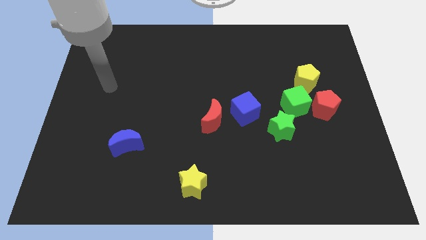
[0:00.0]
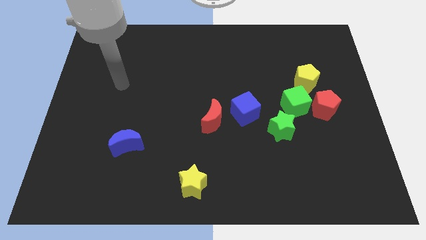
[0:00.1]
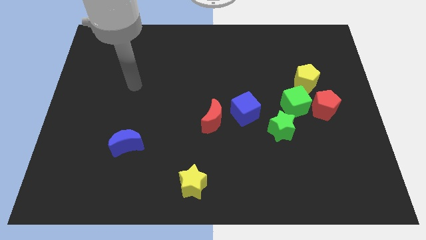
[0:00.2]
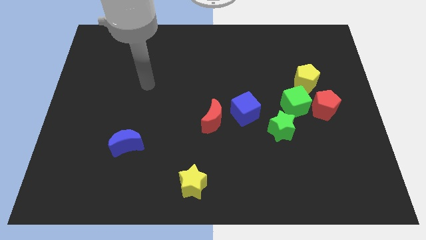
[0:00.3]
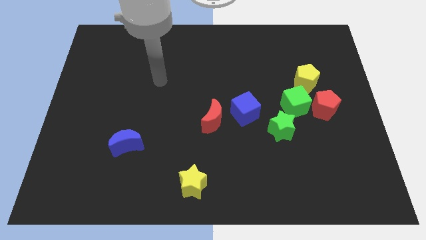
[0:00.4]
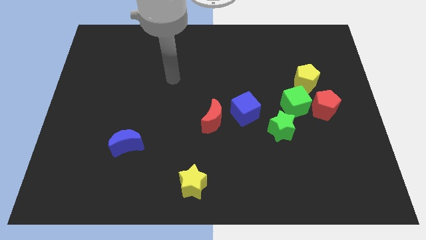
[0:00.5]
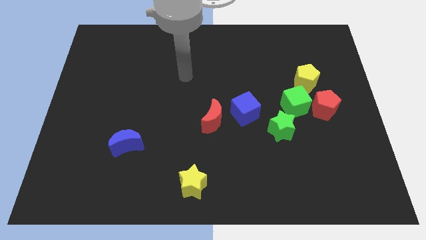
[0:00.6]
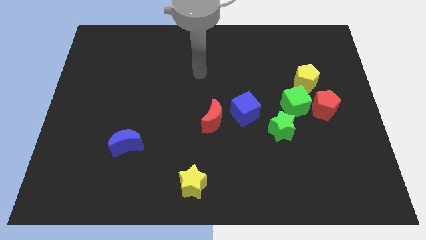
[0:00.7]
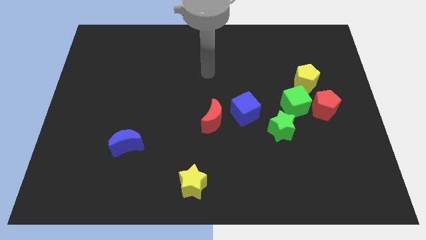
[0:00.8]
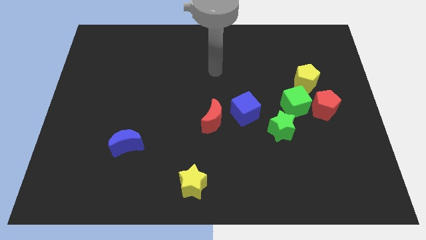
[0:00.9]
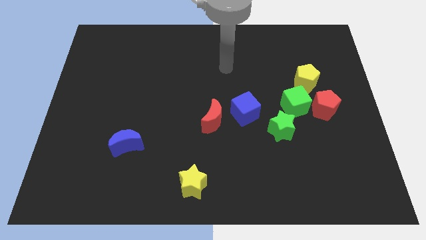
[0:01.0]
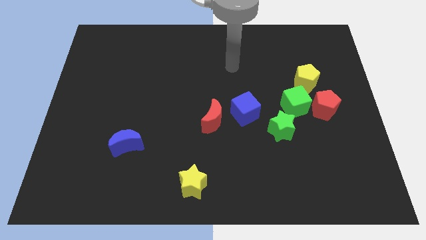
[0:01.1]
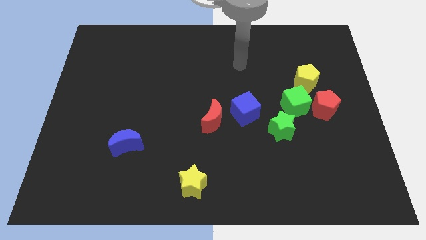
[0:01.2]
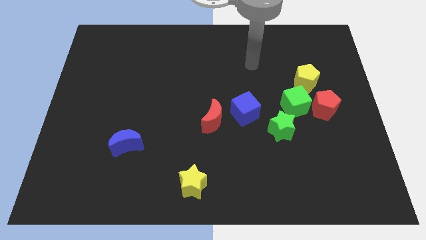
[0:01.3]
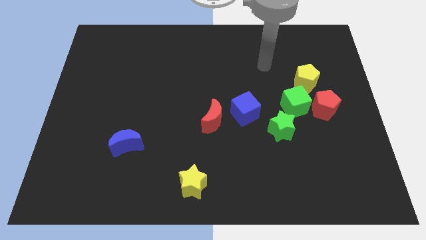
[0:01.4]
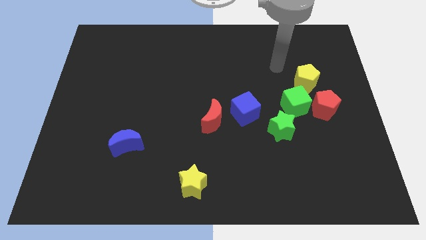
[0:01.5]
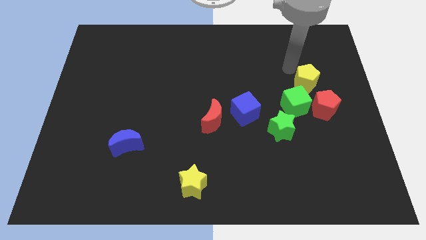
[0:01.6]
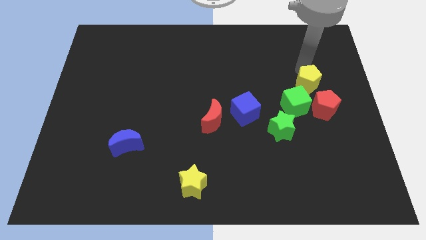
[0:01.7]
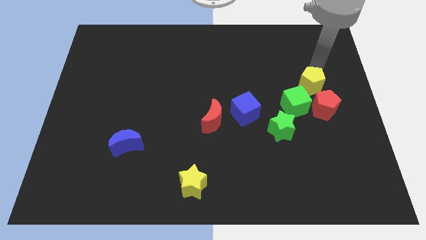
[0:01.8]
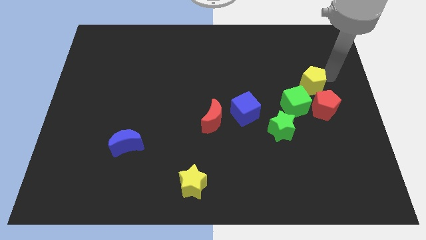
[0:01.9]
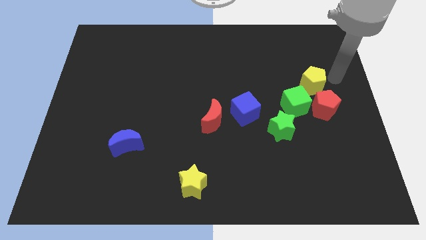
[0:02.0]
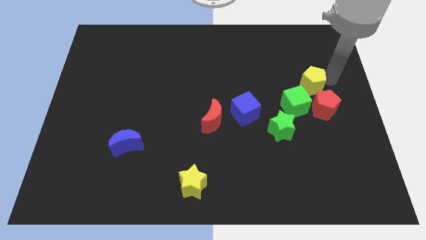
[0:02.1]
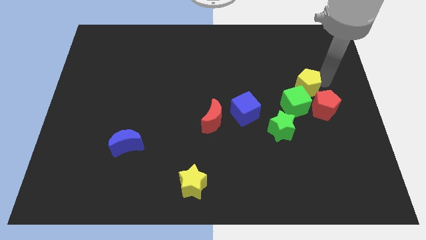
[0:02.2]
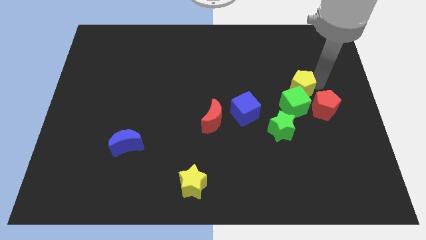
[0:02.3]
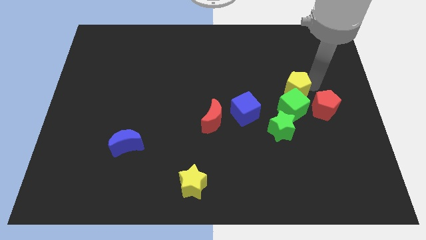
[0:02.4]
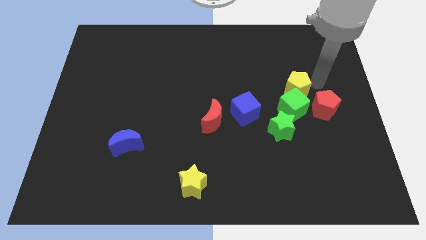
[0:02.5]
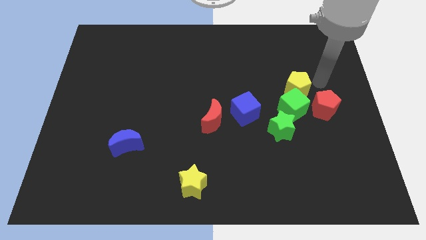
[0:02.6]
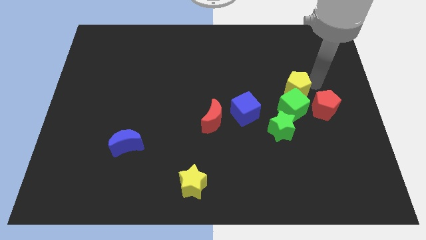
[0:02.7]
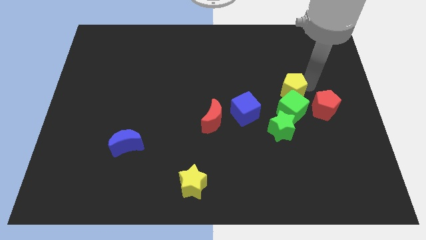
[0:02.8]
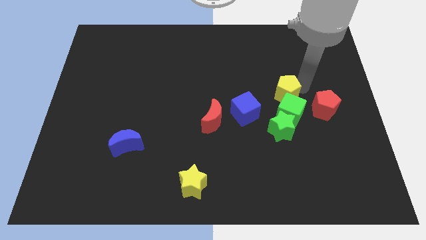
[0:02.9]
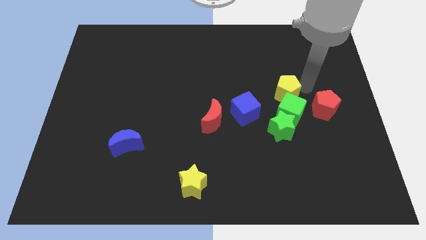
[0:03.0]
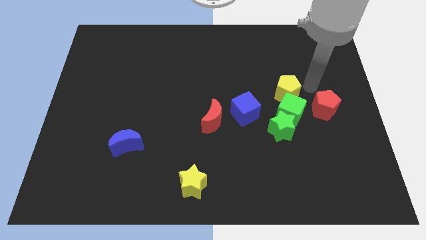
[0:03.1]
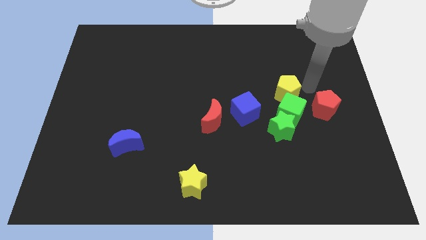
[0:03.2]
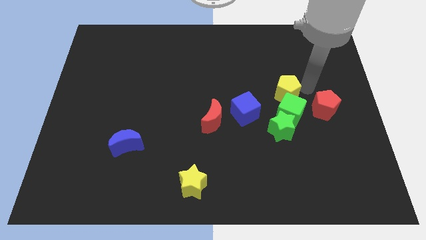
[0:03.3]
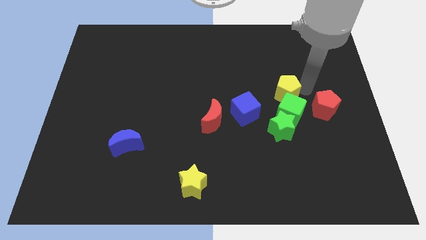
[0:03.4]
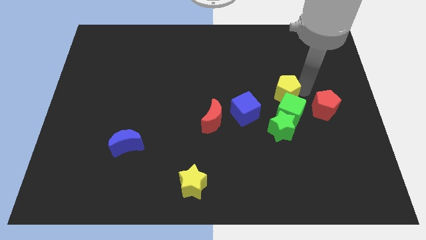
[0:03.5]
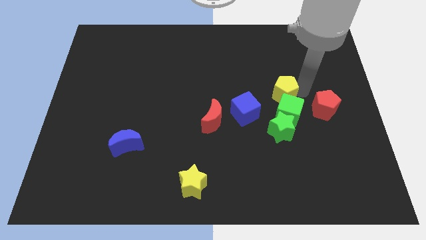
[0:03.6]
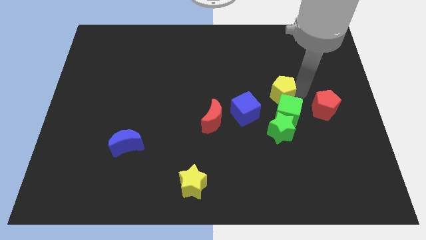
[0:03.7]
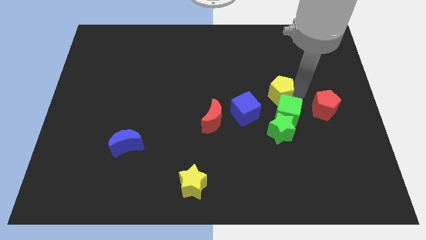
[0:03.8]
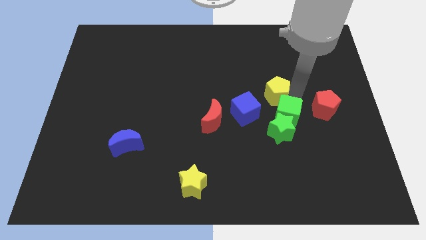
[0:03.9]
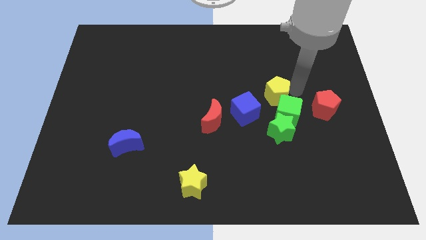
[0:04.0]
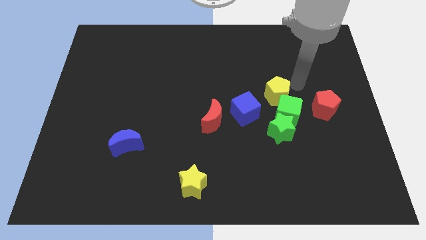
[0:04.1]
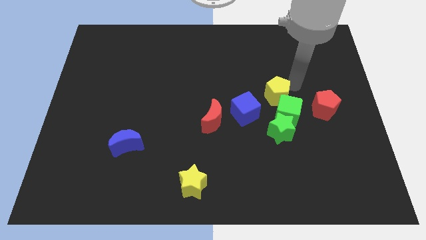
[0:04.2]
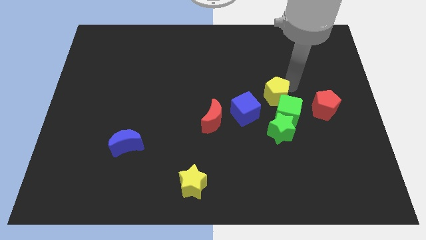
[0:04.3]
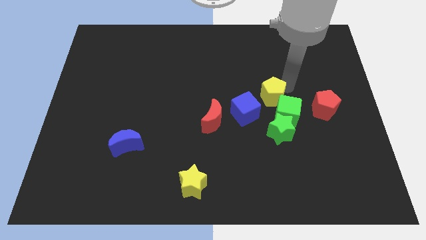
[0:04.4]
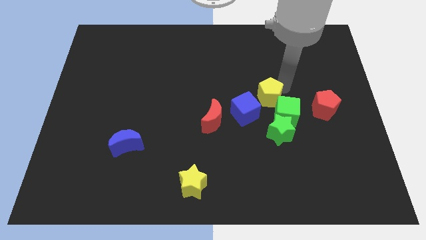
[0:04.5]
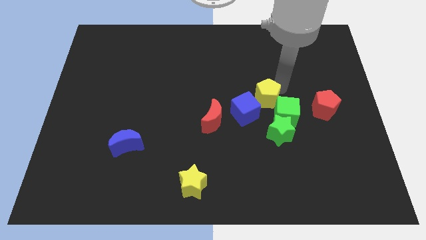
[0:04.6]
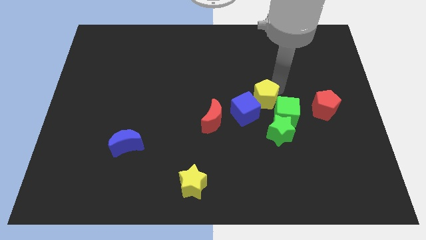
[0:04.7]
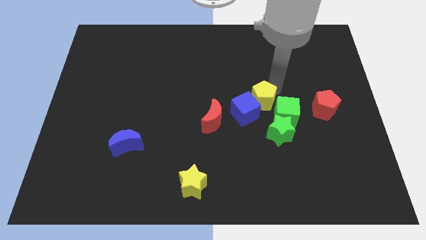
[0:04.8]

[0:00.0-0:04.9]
put the yellow pentagon towards the blue cube

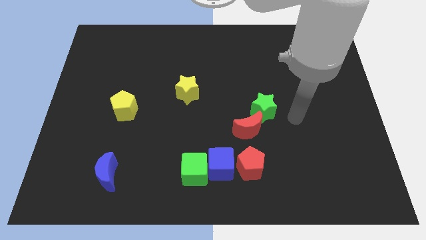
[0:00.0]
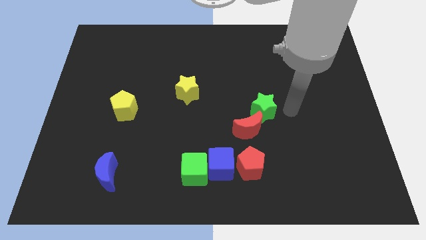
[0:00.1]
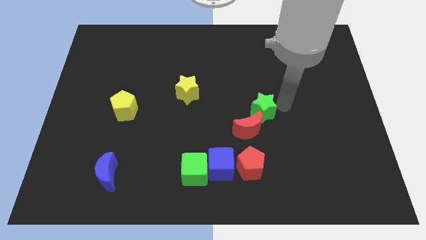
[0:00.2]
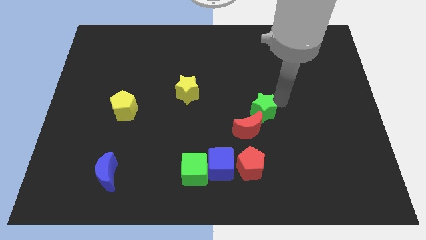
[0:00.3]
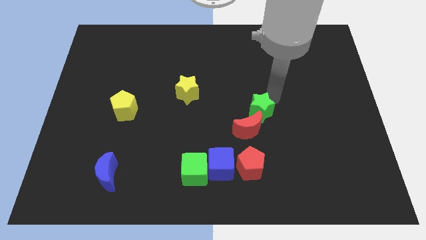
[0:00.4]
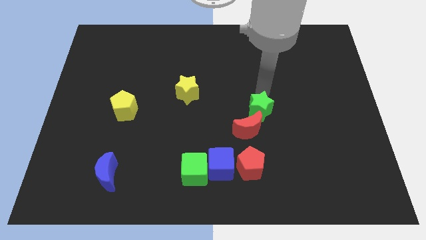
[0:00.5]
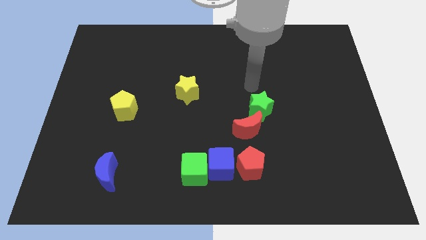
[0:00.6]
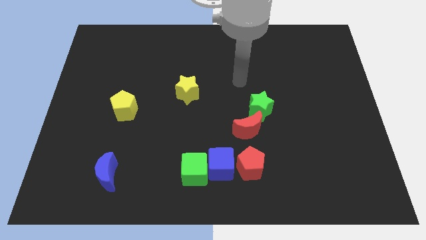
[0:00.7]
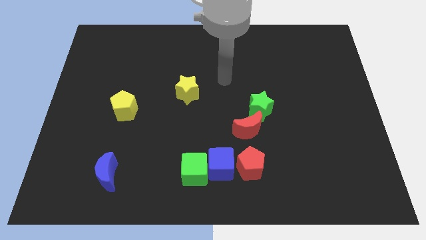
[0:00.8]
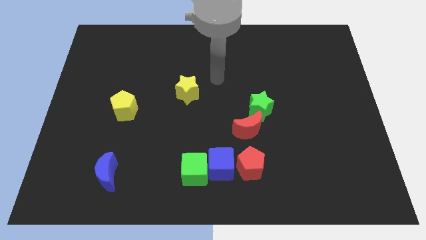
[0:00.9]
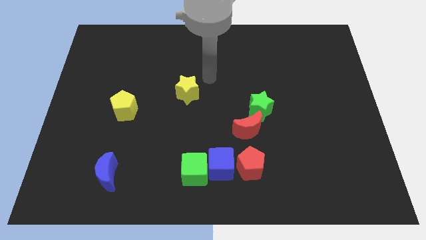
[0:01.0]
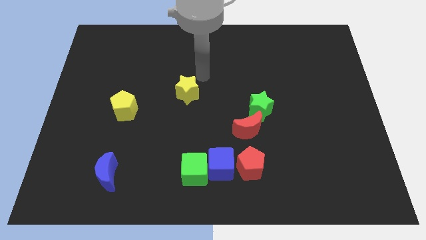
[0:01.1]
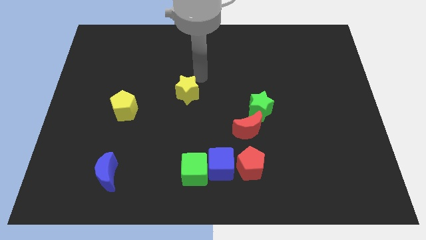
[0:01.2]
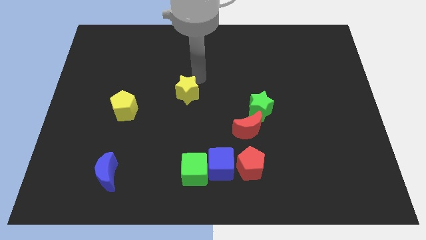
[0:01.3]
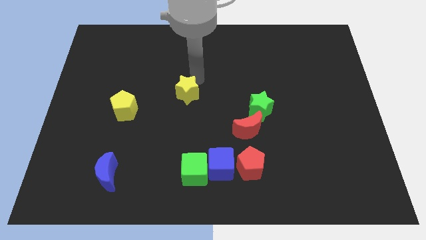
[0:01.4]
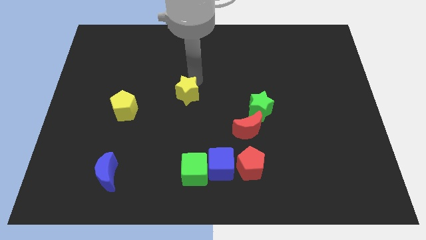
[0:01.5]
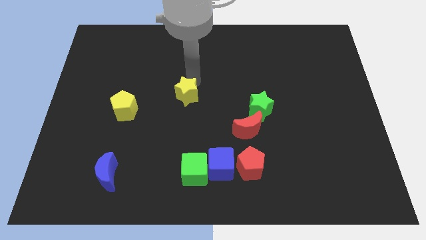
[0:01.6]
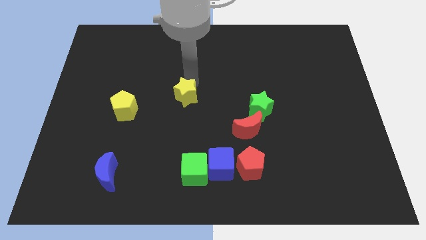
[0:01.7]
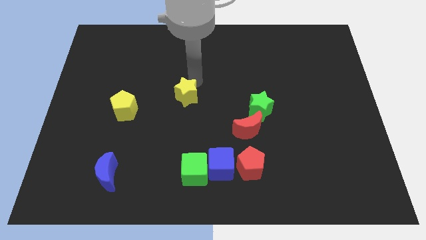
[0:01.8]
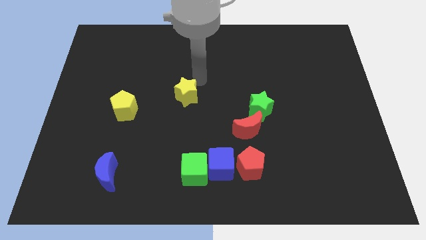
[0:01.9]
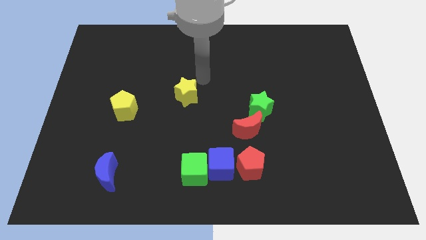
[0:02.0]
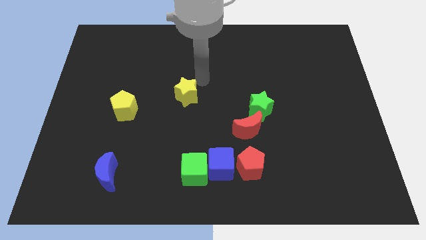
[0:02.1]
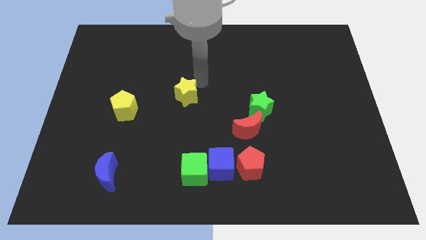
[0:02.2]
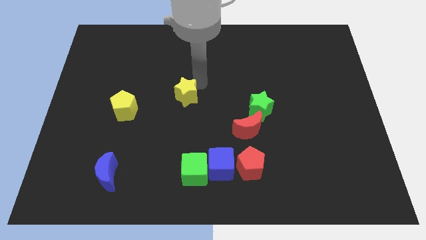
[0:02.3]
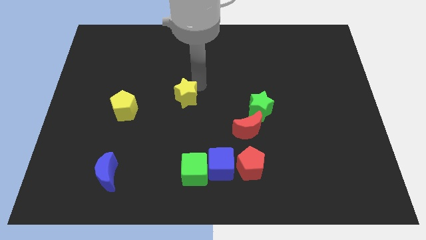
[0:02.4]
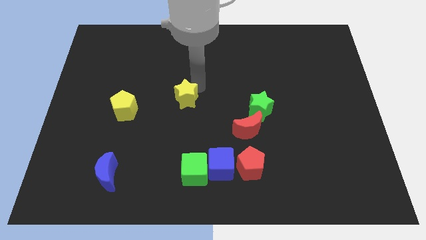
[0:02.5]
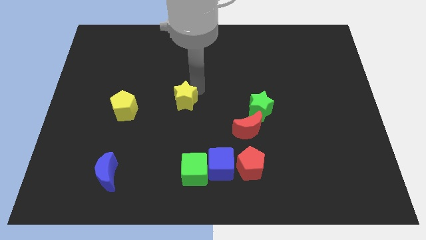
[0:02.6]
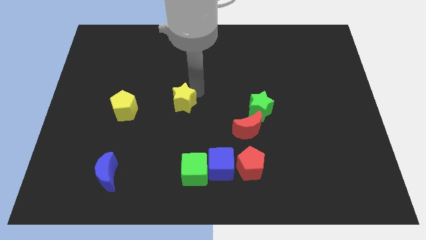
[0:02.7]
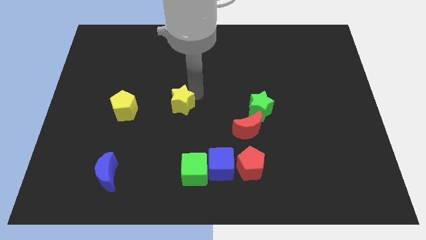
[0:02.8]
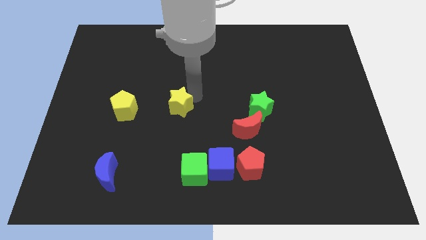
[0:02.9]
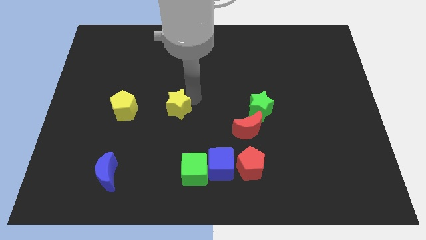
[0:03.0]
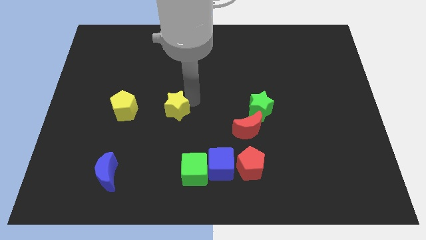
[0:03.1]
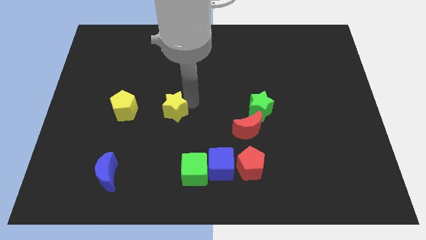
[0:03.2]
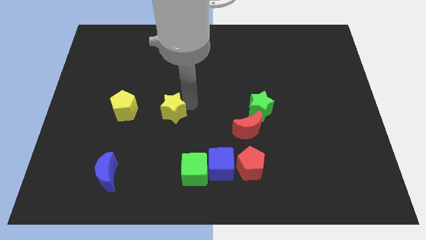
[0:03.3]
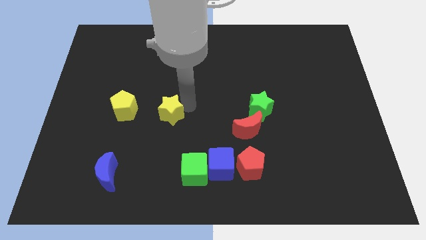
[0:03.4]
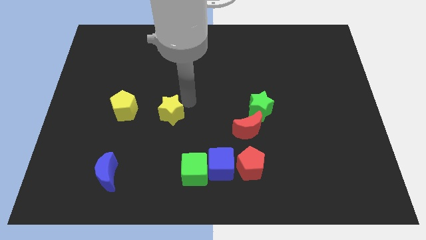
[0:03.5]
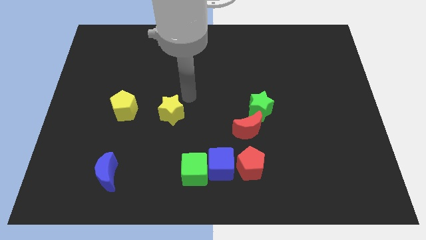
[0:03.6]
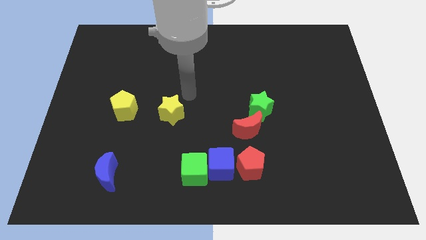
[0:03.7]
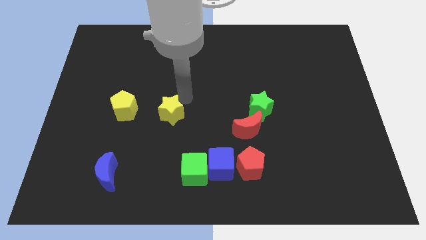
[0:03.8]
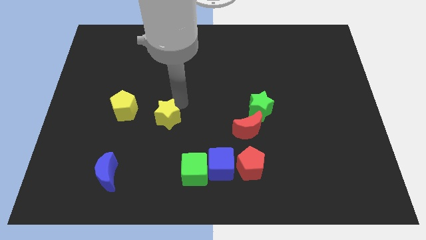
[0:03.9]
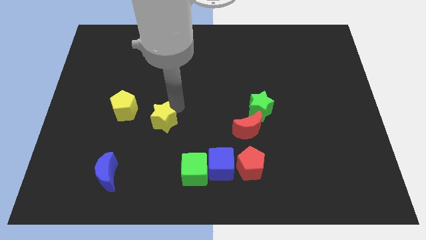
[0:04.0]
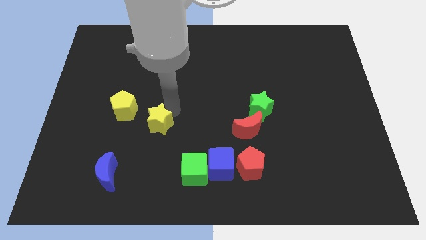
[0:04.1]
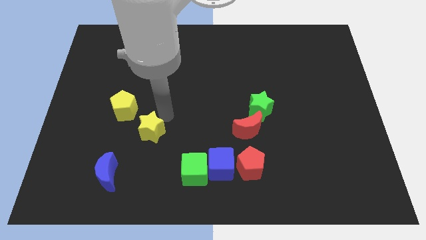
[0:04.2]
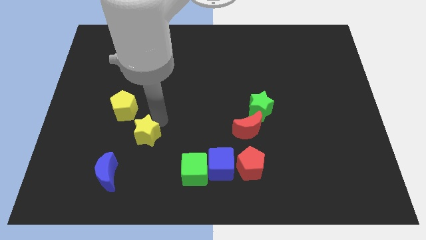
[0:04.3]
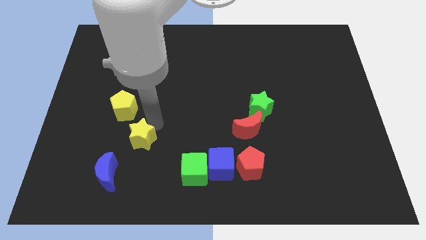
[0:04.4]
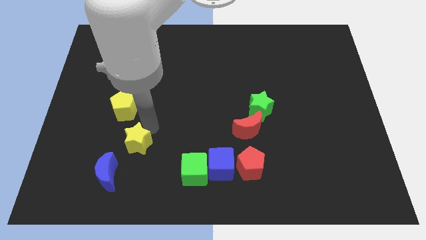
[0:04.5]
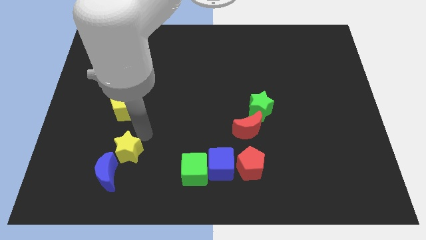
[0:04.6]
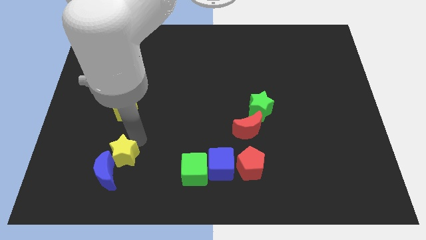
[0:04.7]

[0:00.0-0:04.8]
put the yellow star next to the blue moon
